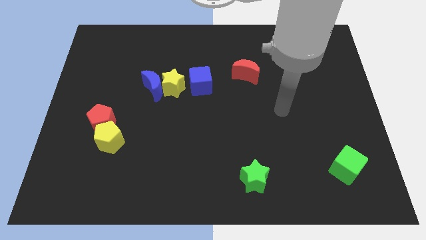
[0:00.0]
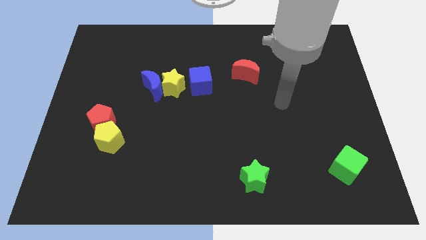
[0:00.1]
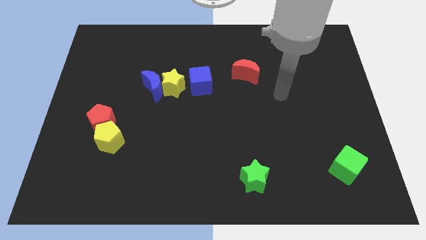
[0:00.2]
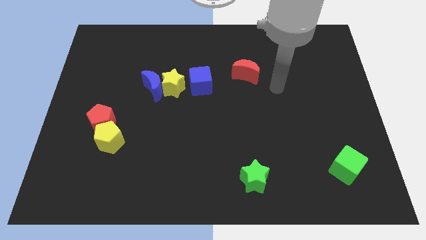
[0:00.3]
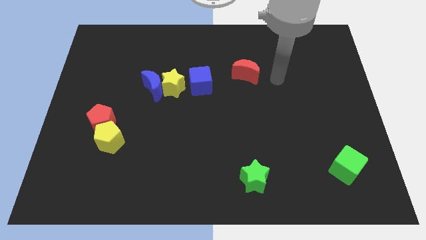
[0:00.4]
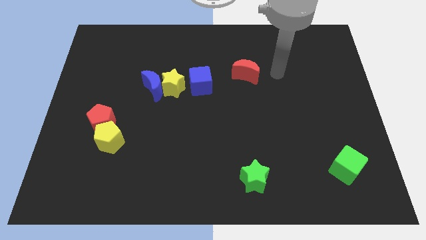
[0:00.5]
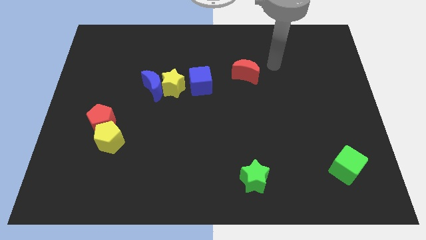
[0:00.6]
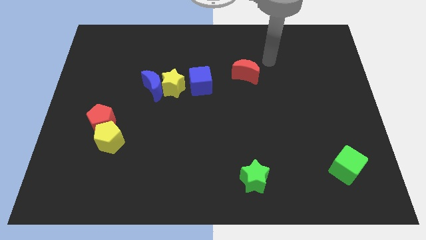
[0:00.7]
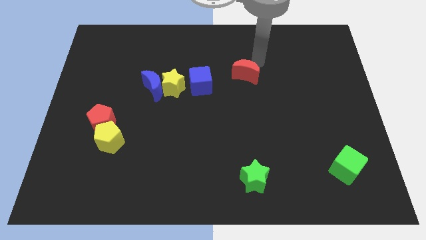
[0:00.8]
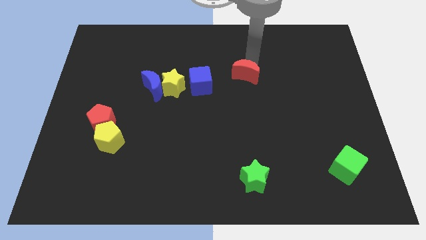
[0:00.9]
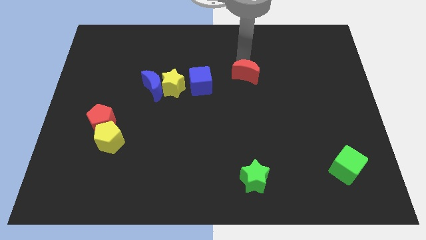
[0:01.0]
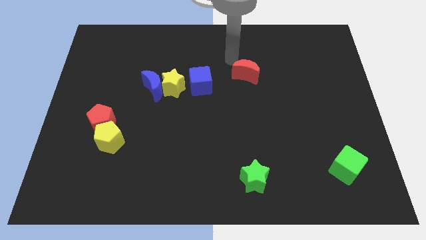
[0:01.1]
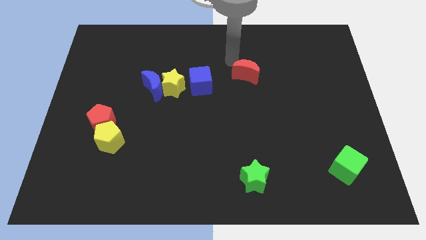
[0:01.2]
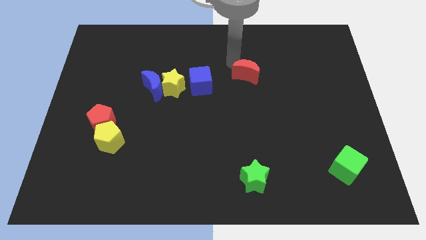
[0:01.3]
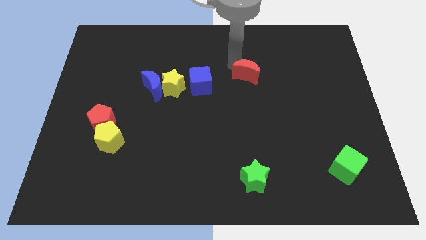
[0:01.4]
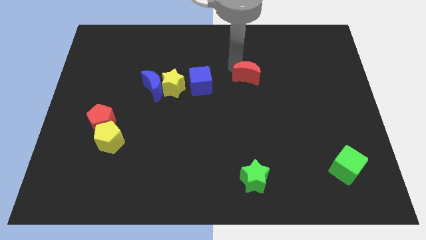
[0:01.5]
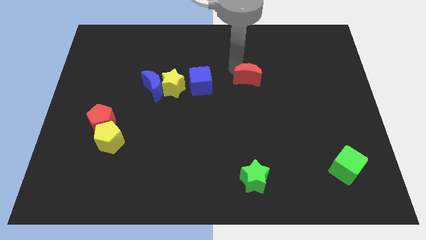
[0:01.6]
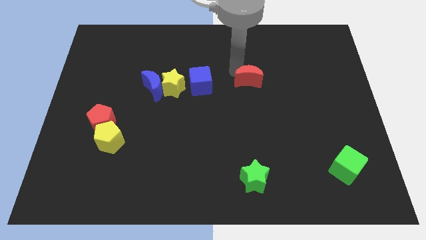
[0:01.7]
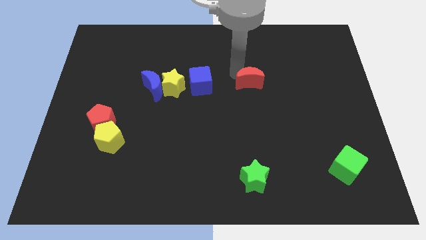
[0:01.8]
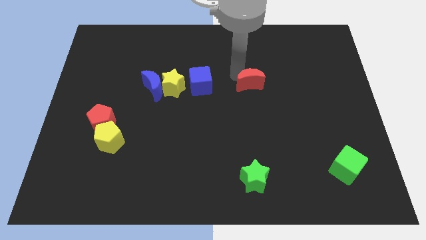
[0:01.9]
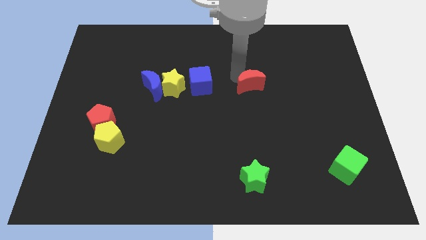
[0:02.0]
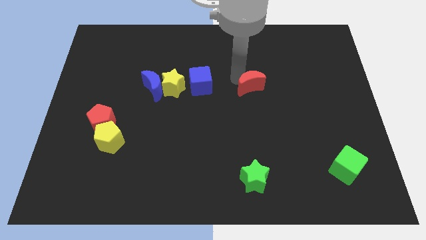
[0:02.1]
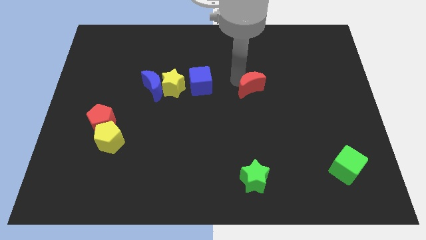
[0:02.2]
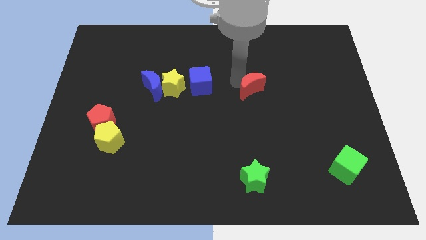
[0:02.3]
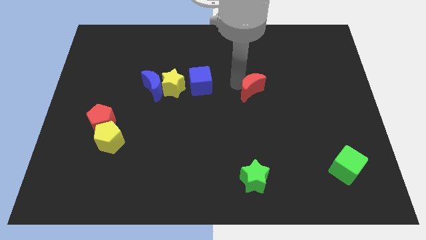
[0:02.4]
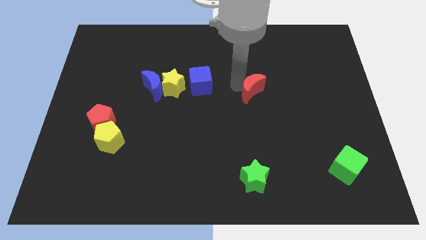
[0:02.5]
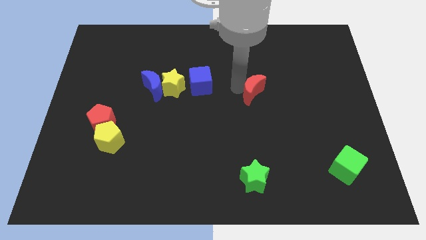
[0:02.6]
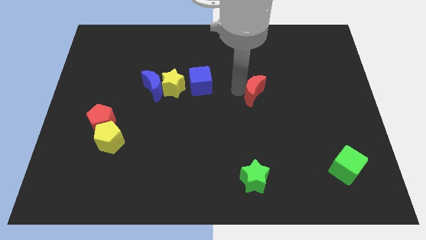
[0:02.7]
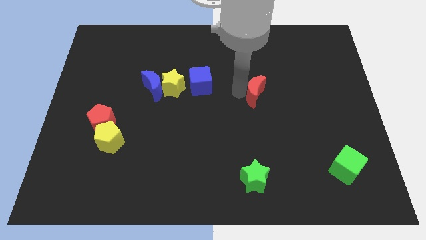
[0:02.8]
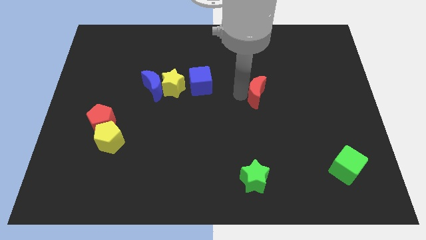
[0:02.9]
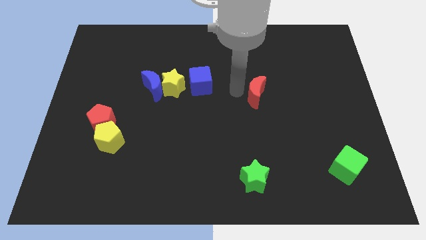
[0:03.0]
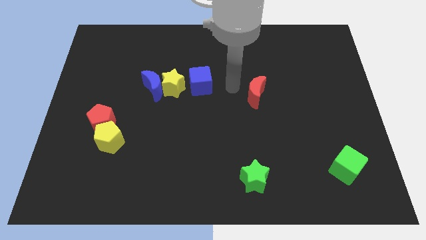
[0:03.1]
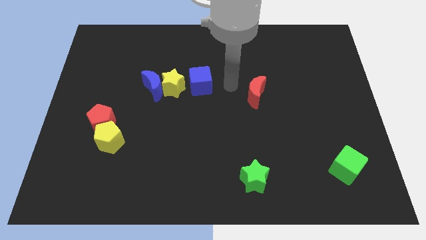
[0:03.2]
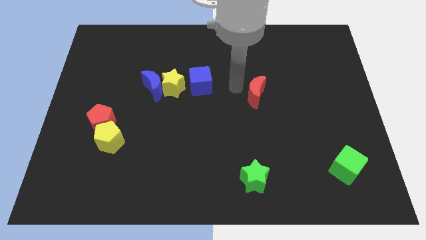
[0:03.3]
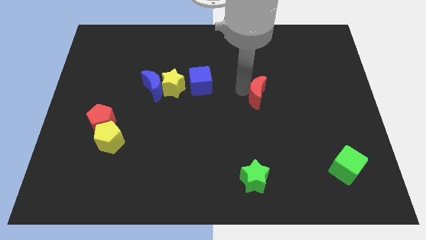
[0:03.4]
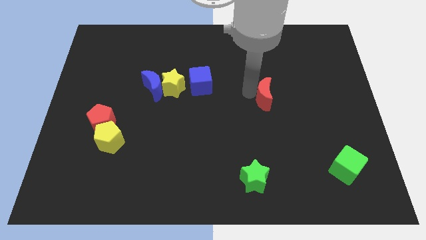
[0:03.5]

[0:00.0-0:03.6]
slightly move the red moon downwards and right

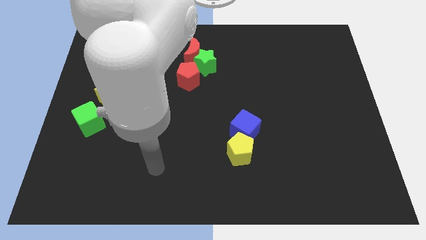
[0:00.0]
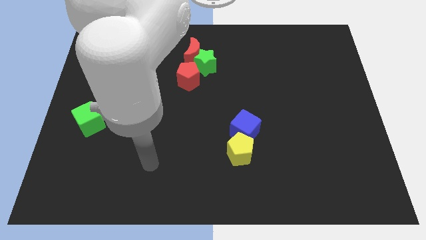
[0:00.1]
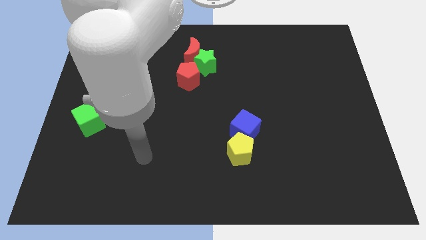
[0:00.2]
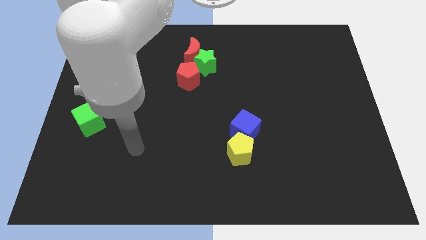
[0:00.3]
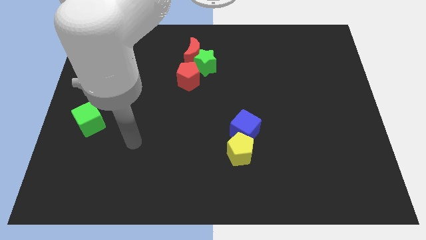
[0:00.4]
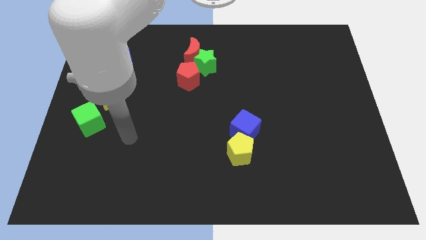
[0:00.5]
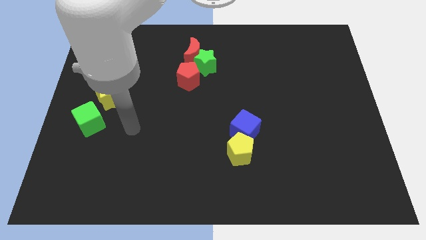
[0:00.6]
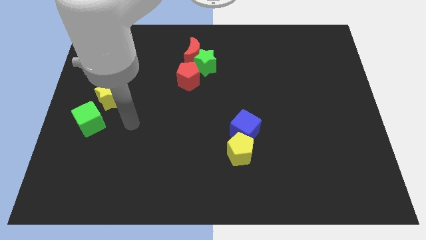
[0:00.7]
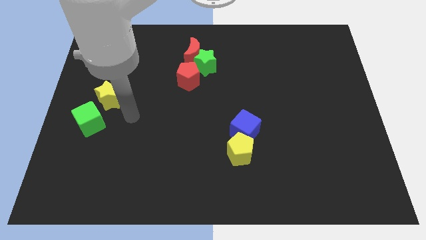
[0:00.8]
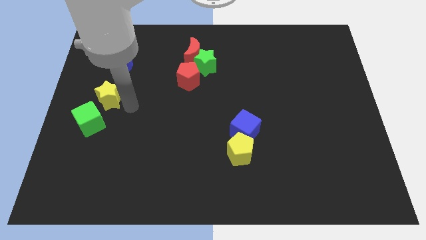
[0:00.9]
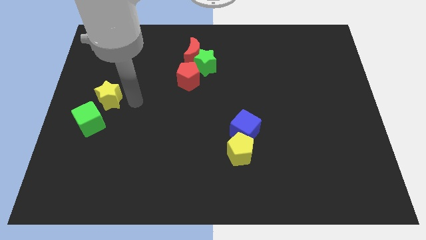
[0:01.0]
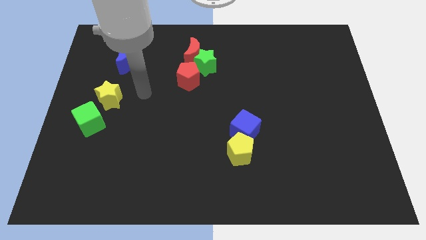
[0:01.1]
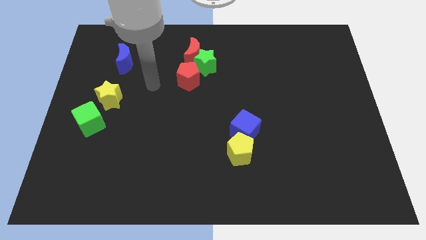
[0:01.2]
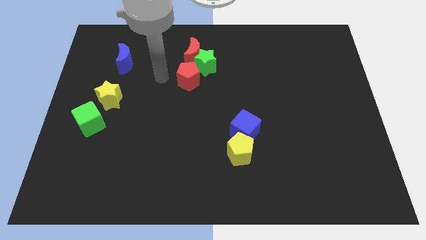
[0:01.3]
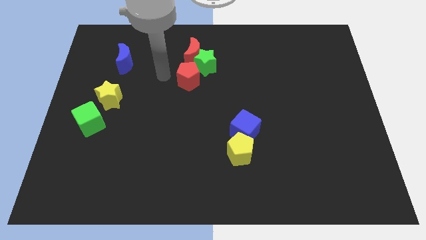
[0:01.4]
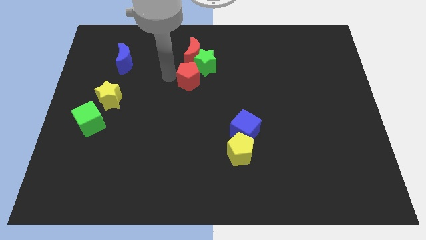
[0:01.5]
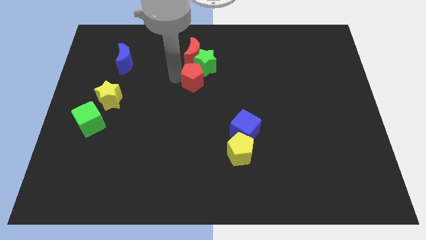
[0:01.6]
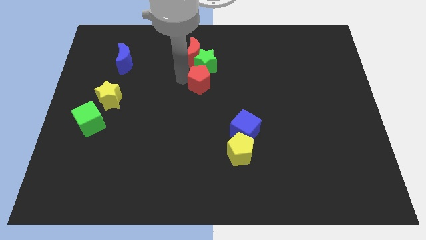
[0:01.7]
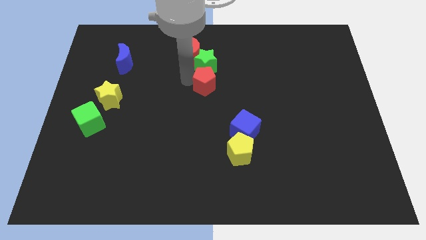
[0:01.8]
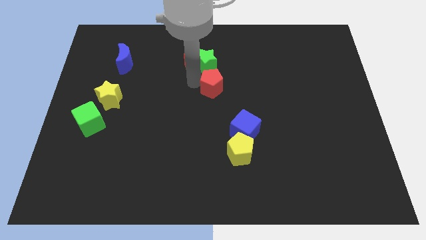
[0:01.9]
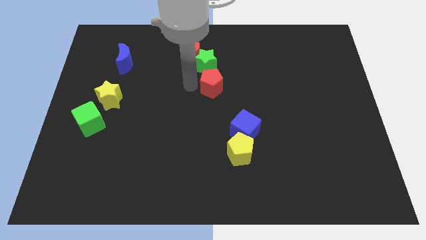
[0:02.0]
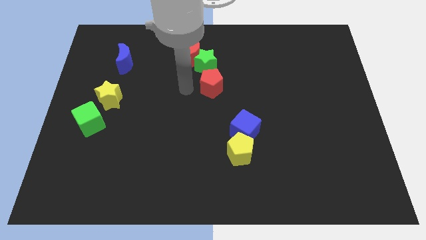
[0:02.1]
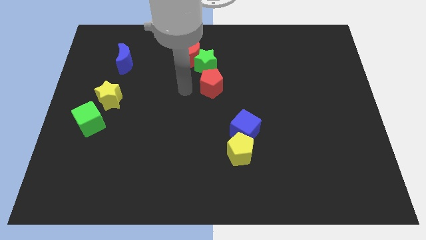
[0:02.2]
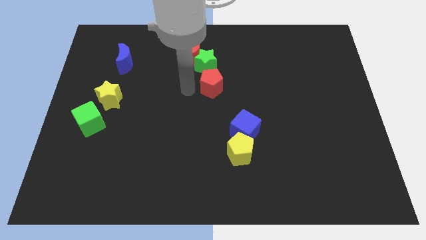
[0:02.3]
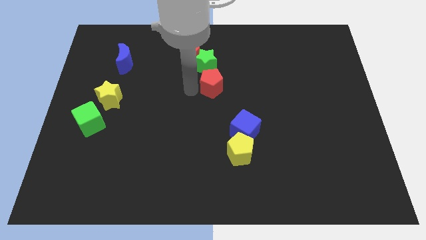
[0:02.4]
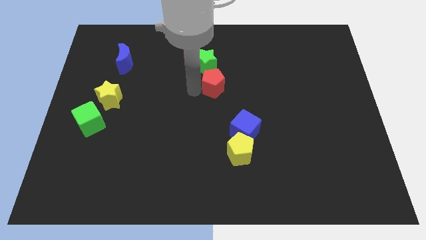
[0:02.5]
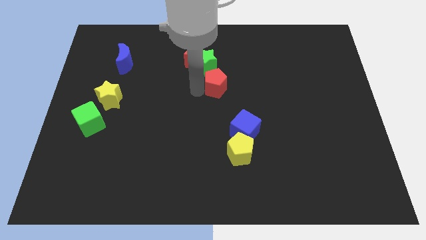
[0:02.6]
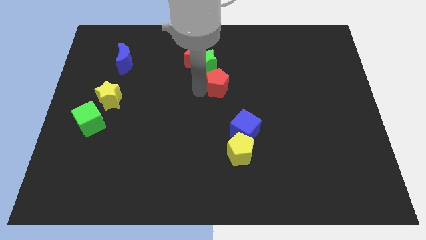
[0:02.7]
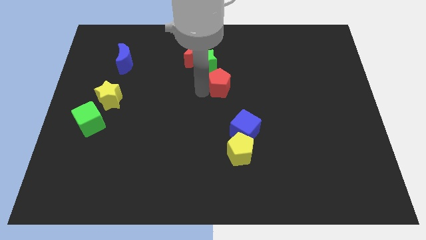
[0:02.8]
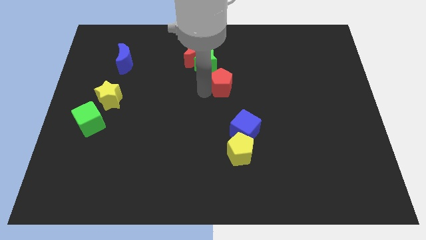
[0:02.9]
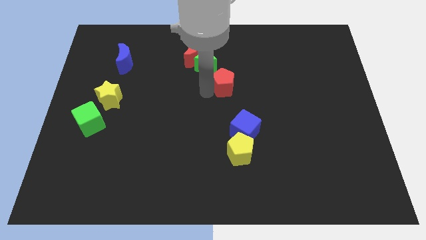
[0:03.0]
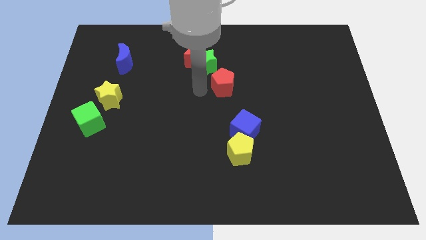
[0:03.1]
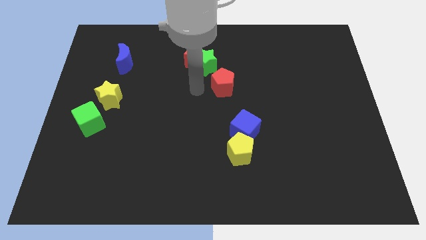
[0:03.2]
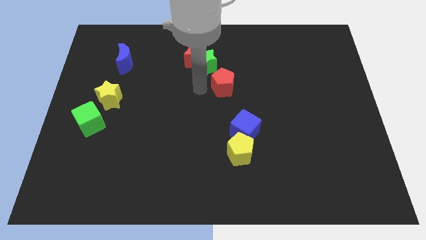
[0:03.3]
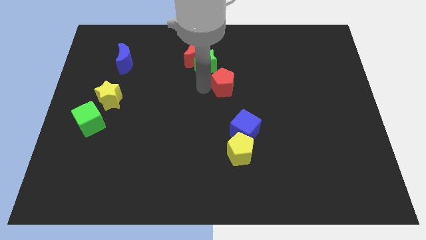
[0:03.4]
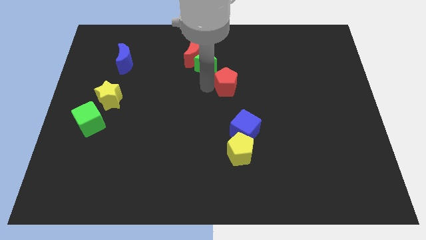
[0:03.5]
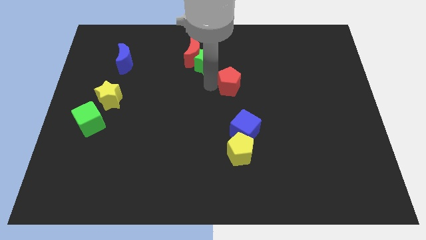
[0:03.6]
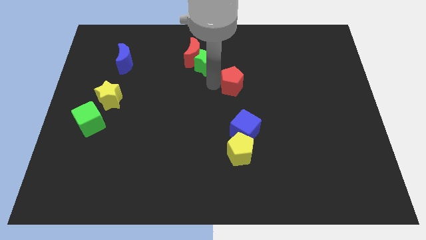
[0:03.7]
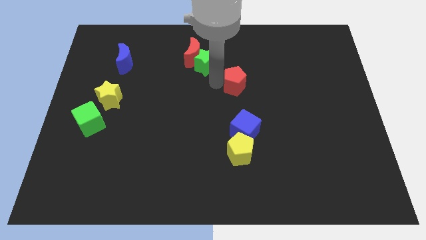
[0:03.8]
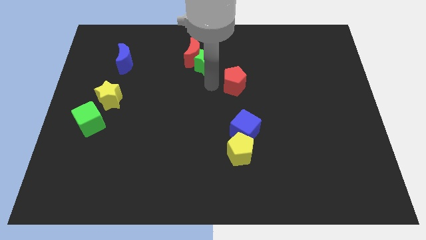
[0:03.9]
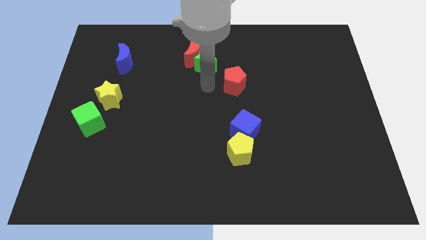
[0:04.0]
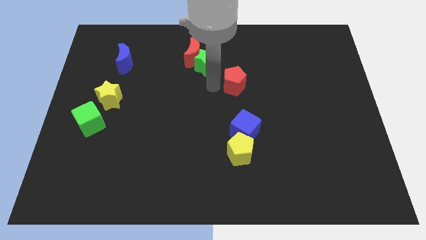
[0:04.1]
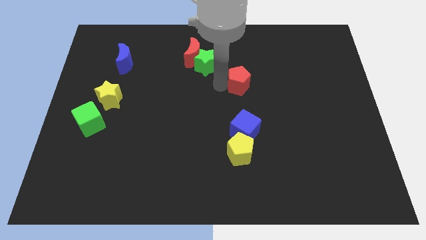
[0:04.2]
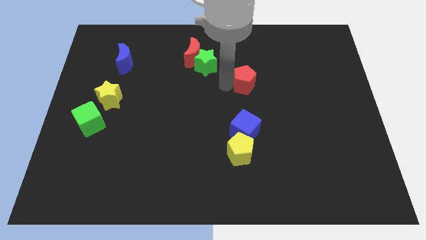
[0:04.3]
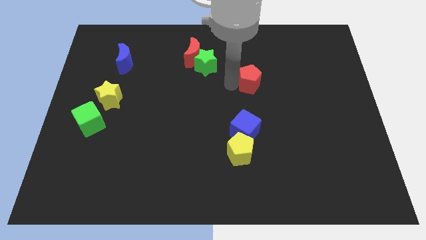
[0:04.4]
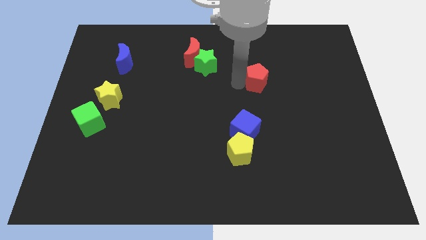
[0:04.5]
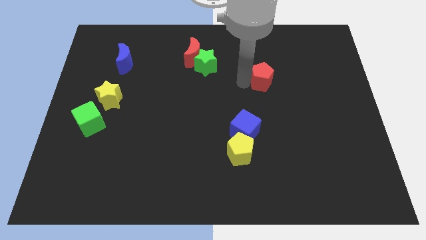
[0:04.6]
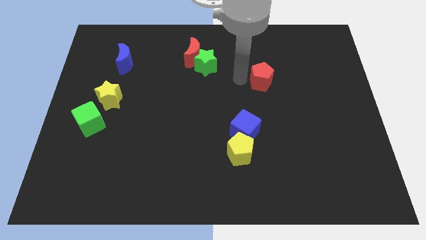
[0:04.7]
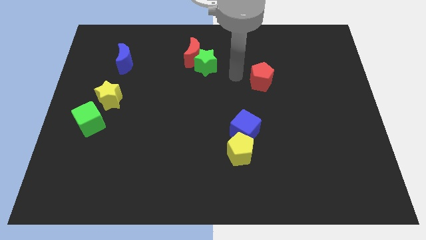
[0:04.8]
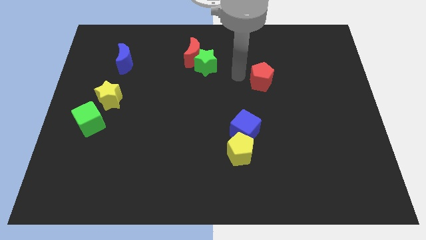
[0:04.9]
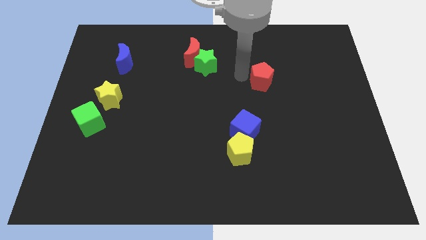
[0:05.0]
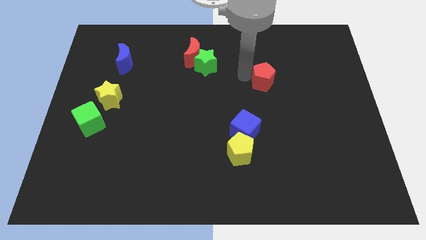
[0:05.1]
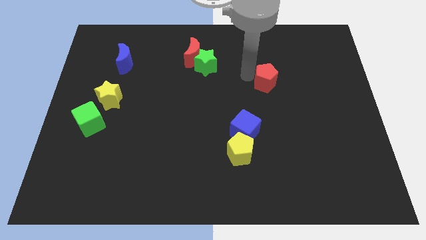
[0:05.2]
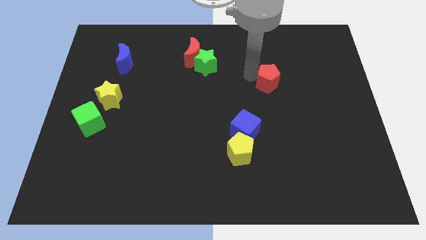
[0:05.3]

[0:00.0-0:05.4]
push the red pentagon right
